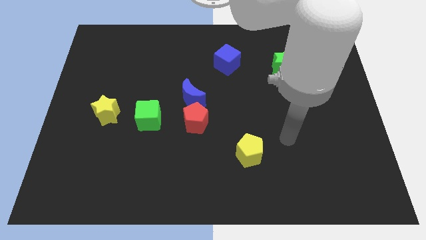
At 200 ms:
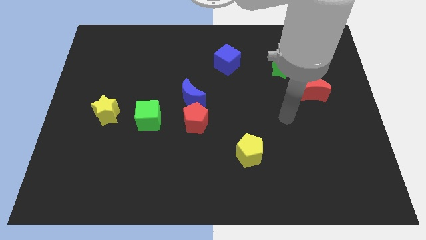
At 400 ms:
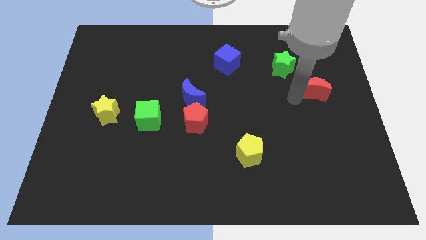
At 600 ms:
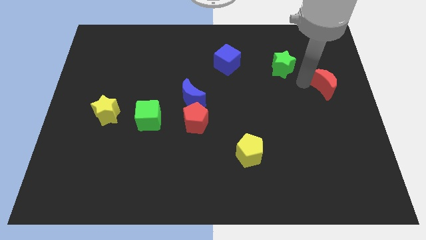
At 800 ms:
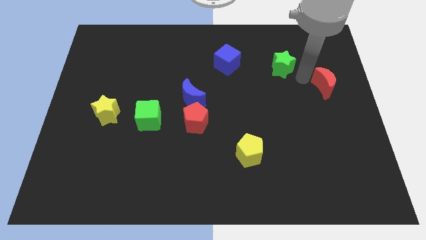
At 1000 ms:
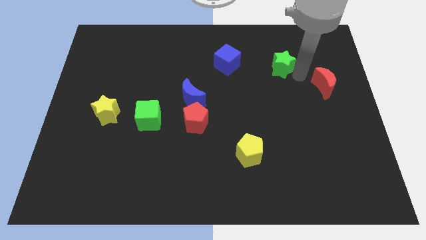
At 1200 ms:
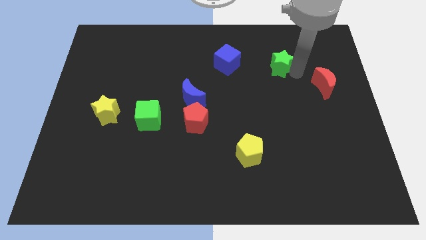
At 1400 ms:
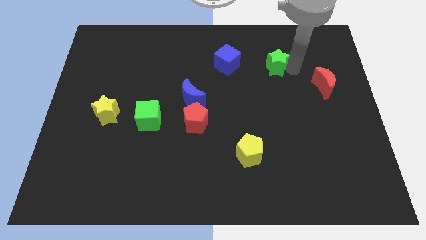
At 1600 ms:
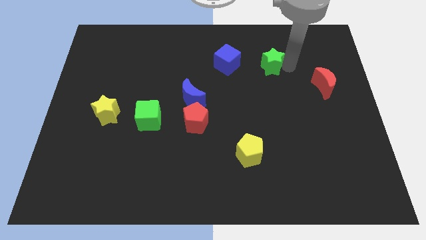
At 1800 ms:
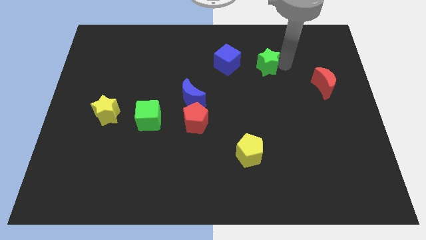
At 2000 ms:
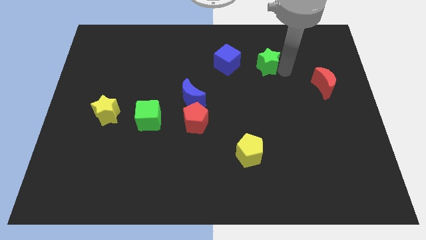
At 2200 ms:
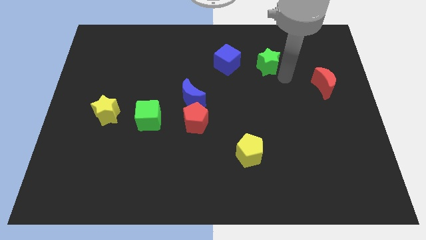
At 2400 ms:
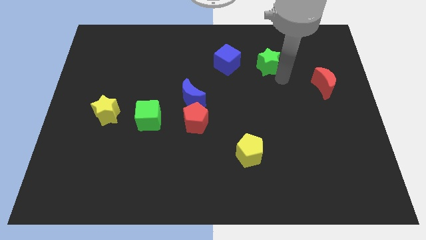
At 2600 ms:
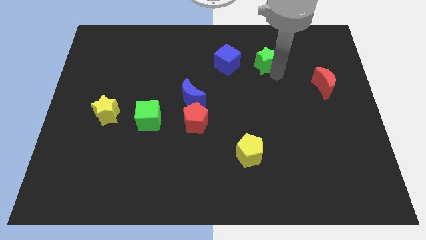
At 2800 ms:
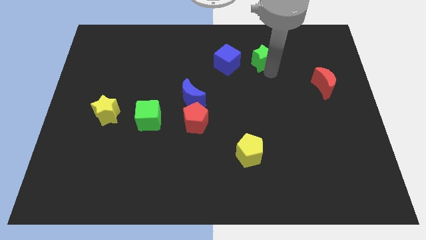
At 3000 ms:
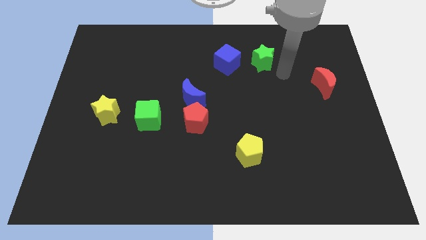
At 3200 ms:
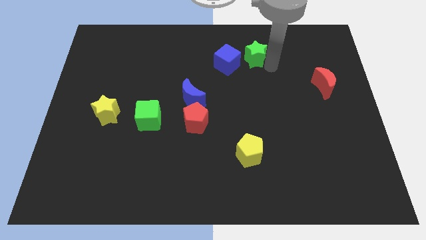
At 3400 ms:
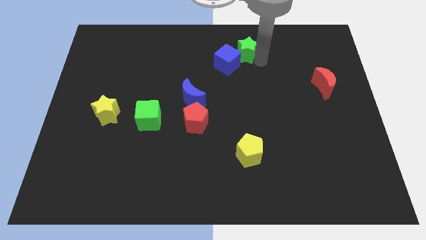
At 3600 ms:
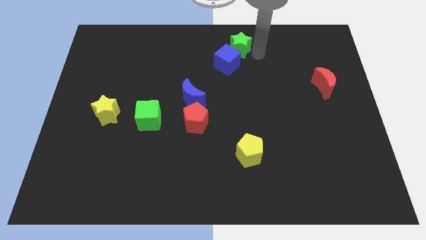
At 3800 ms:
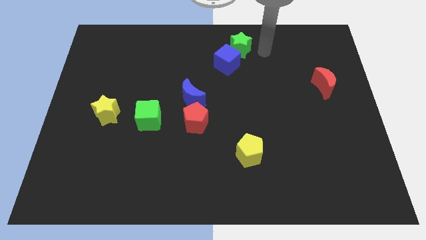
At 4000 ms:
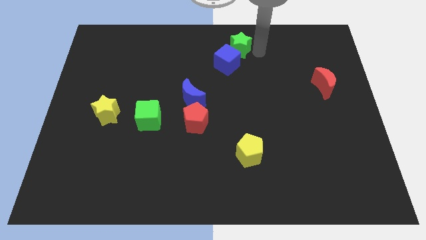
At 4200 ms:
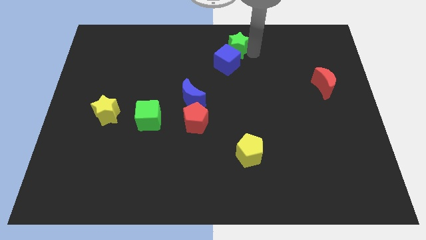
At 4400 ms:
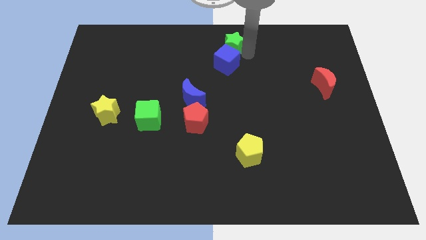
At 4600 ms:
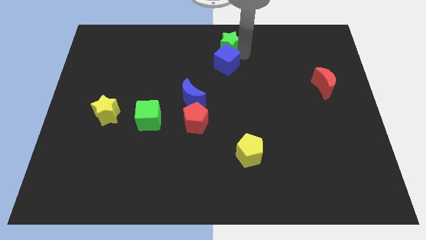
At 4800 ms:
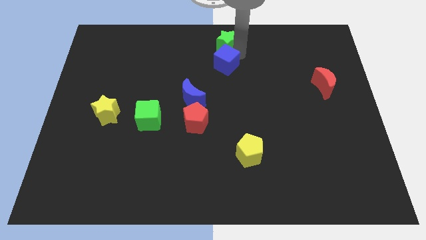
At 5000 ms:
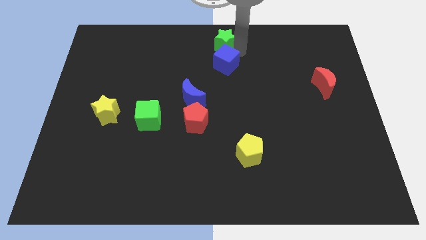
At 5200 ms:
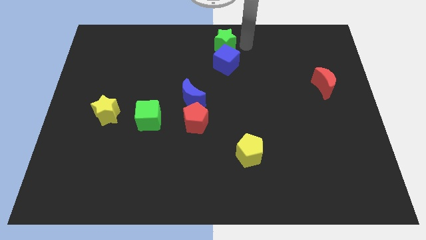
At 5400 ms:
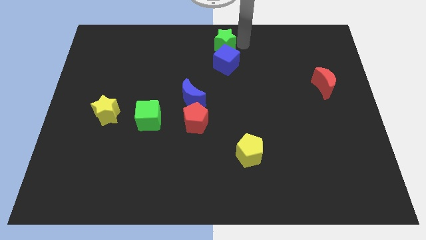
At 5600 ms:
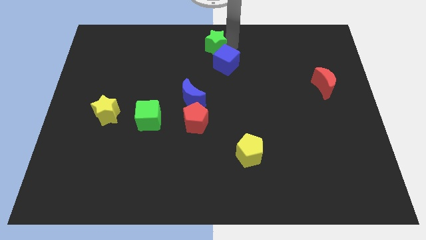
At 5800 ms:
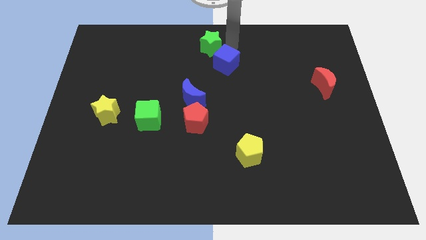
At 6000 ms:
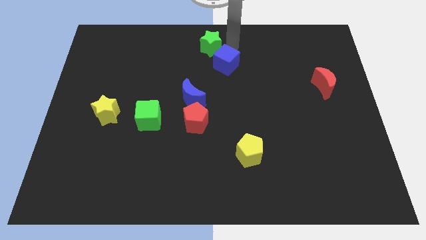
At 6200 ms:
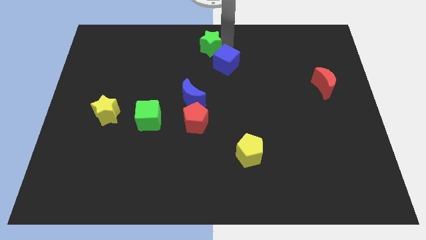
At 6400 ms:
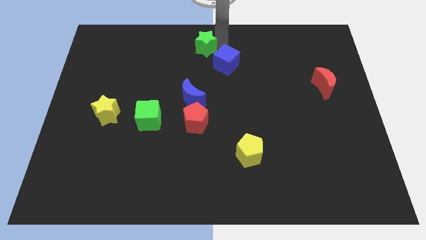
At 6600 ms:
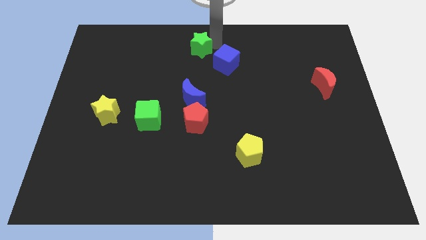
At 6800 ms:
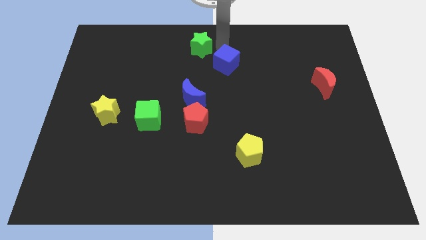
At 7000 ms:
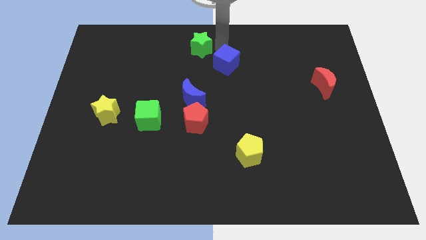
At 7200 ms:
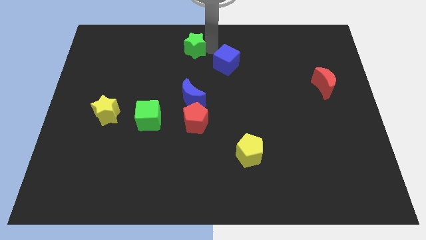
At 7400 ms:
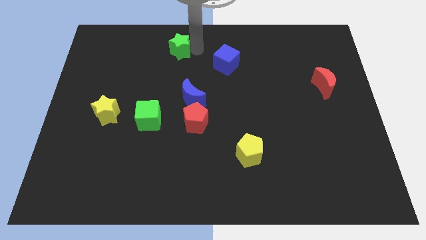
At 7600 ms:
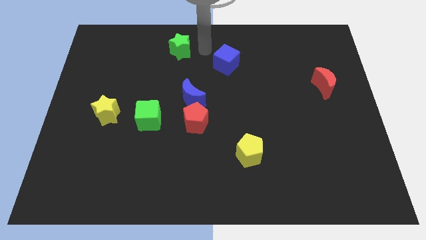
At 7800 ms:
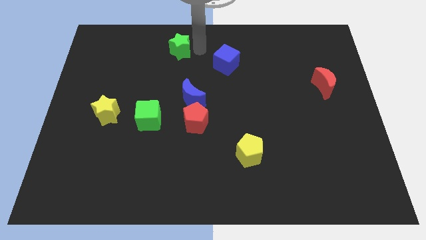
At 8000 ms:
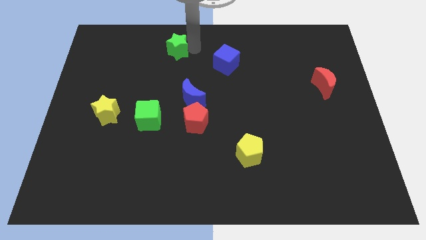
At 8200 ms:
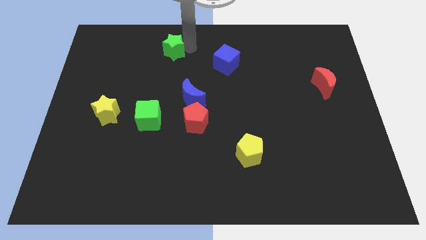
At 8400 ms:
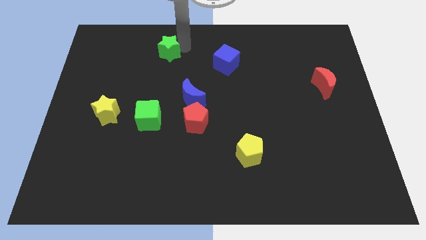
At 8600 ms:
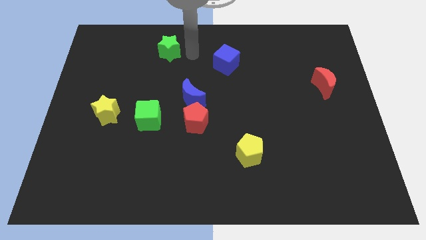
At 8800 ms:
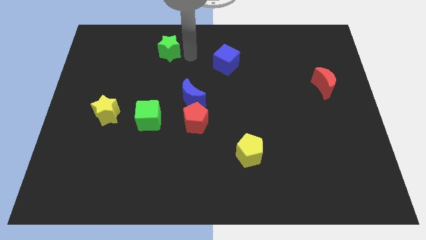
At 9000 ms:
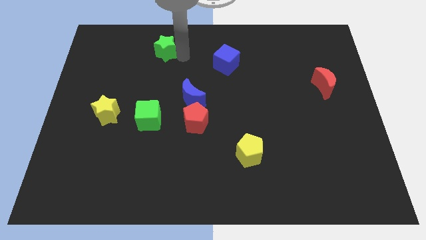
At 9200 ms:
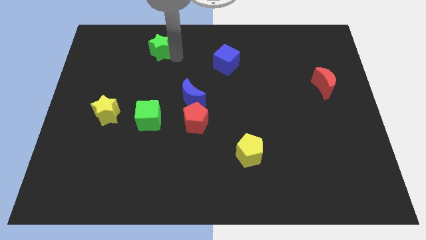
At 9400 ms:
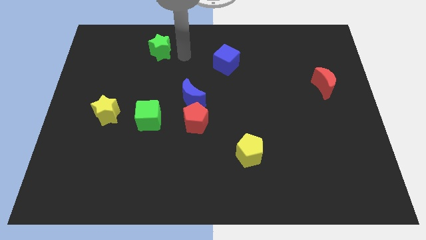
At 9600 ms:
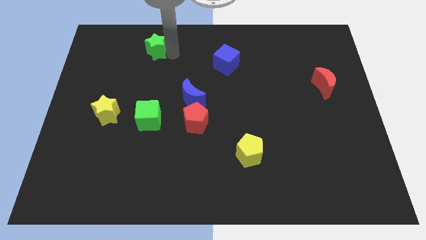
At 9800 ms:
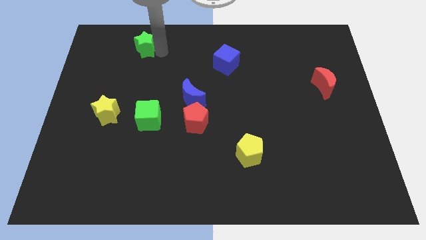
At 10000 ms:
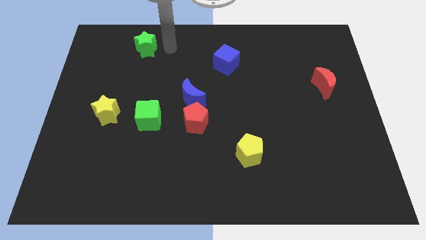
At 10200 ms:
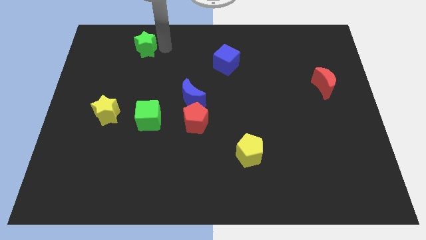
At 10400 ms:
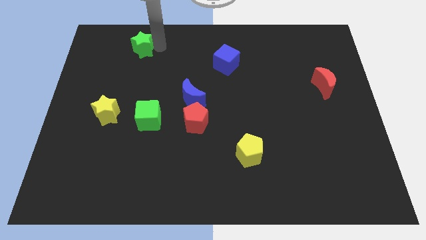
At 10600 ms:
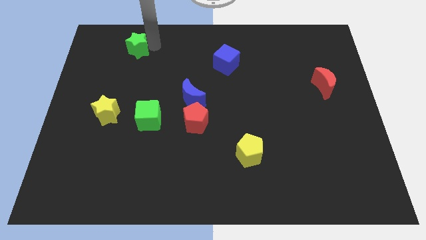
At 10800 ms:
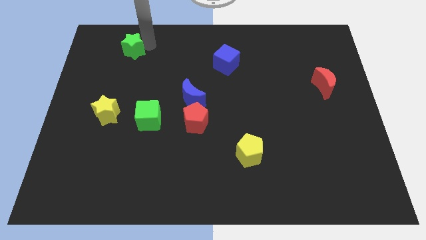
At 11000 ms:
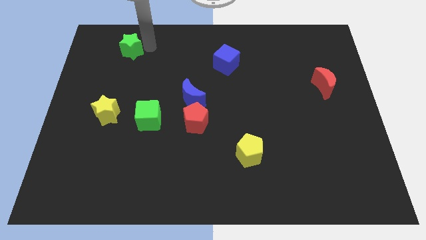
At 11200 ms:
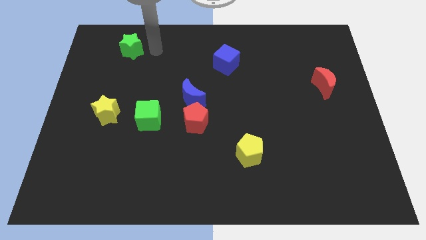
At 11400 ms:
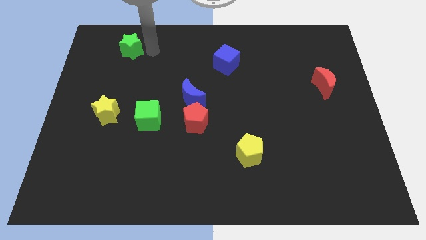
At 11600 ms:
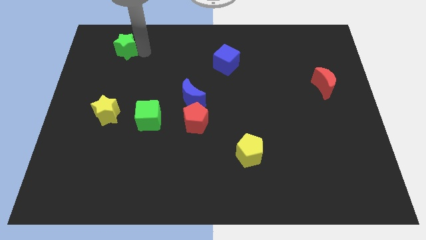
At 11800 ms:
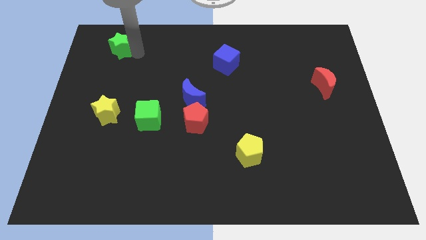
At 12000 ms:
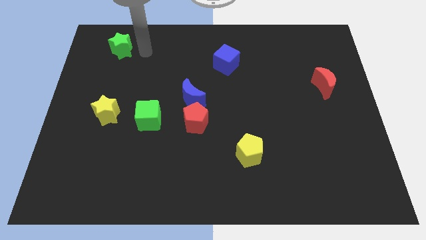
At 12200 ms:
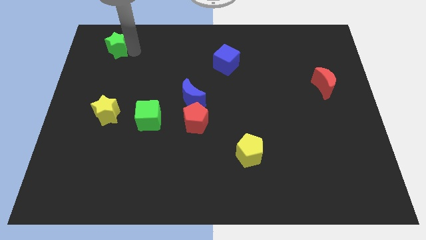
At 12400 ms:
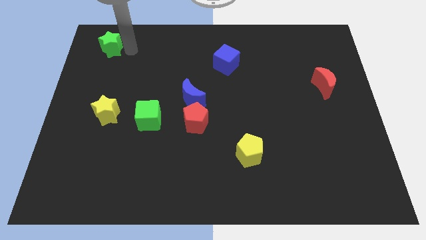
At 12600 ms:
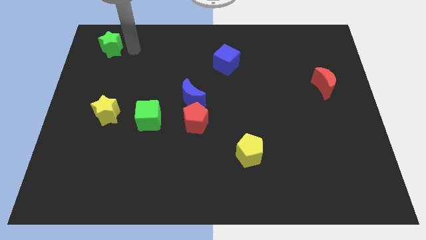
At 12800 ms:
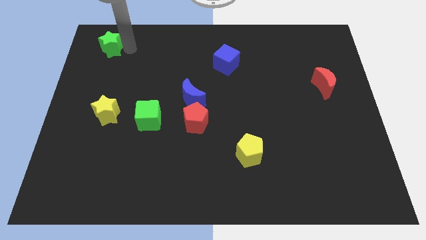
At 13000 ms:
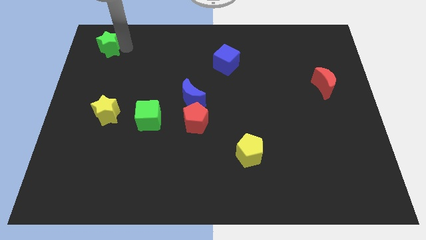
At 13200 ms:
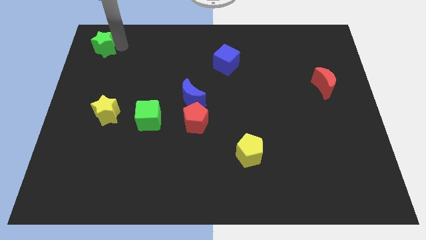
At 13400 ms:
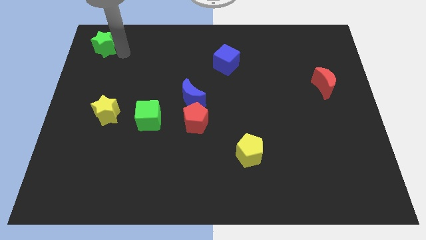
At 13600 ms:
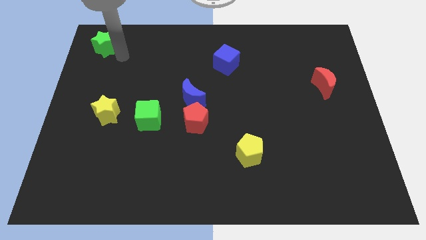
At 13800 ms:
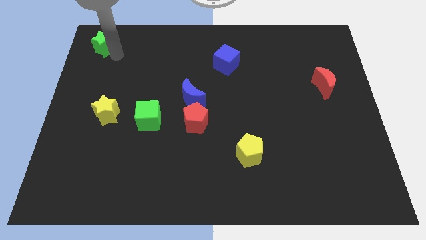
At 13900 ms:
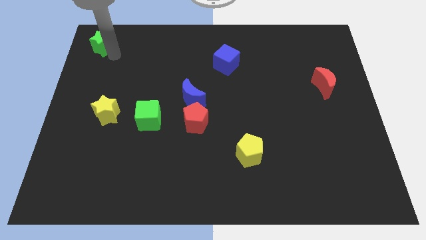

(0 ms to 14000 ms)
put the green star to the top left of the board
